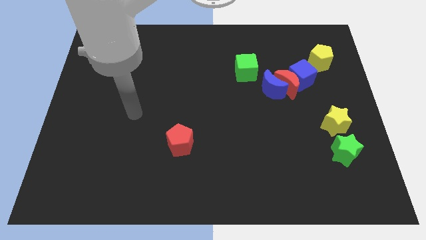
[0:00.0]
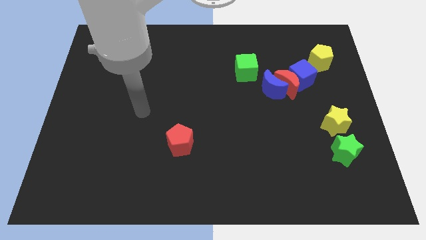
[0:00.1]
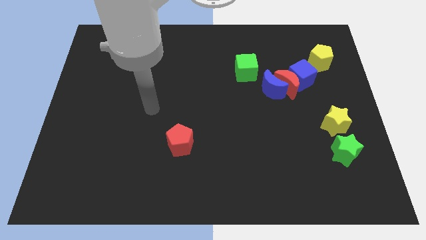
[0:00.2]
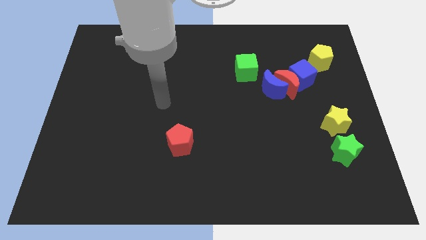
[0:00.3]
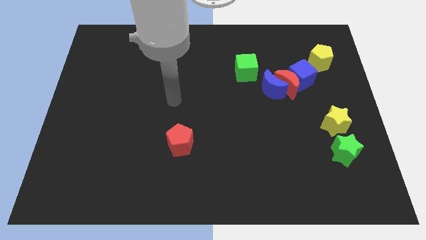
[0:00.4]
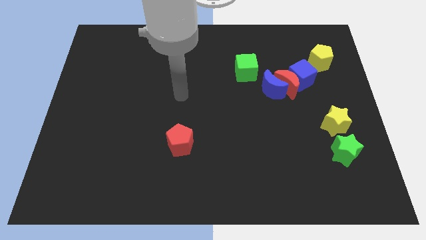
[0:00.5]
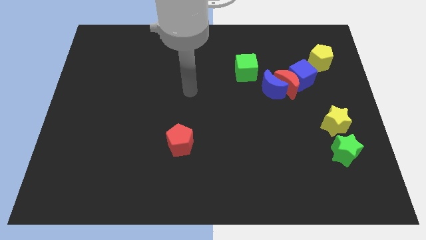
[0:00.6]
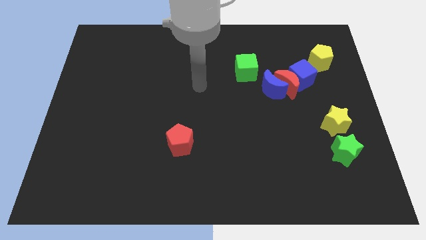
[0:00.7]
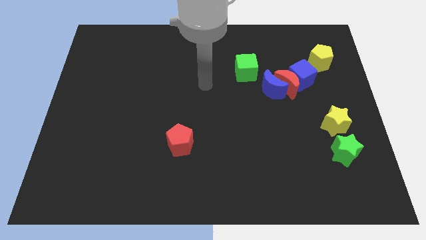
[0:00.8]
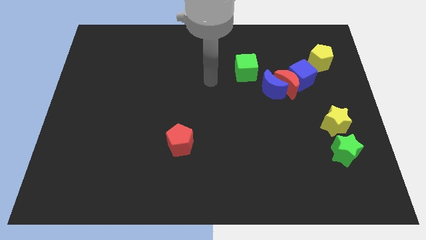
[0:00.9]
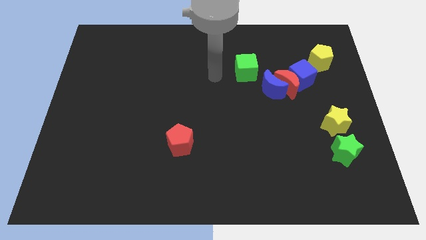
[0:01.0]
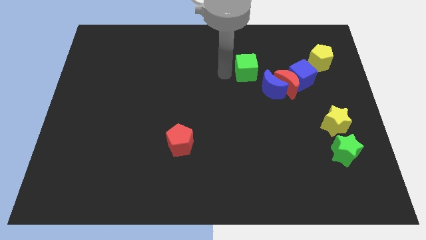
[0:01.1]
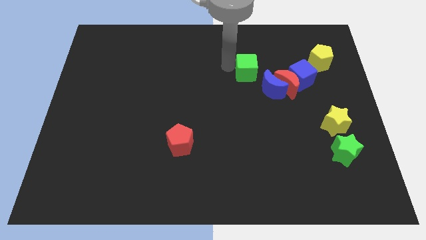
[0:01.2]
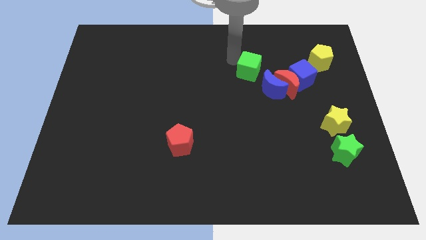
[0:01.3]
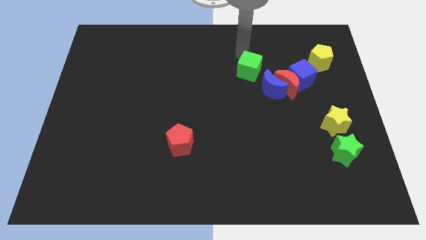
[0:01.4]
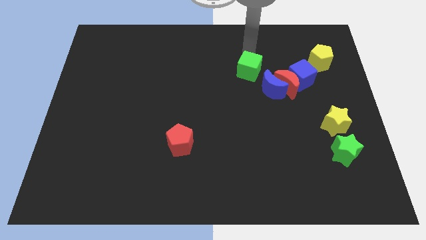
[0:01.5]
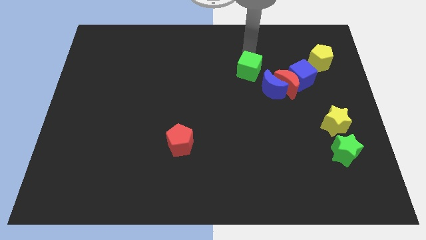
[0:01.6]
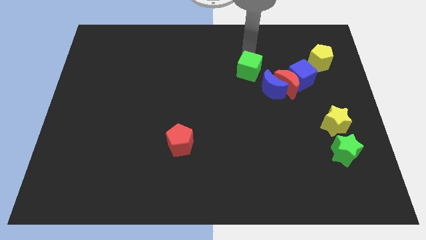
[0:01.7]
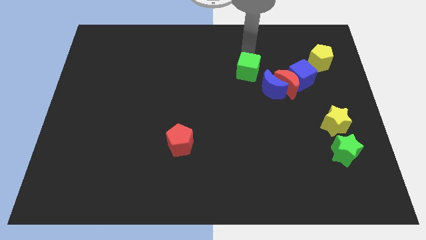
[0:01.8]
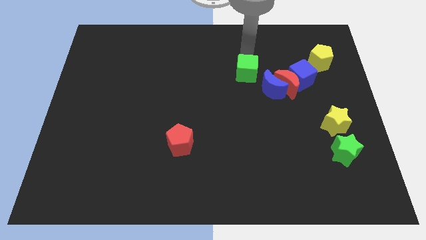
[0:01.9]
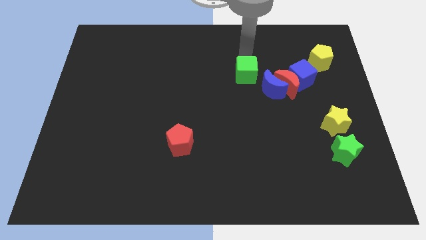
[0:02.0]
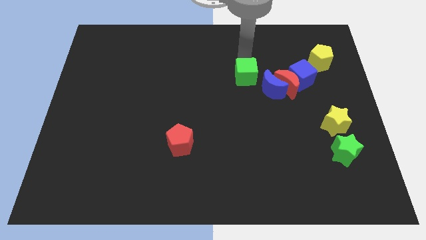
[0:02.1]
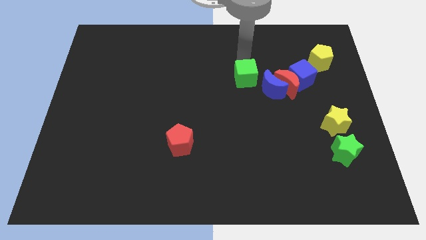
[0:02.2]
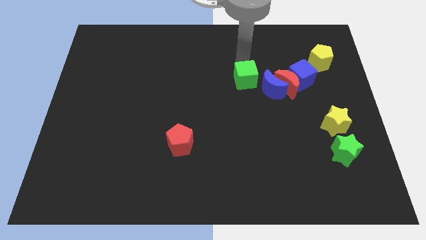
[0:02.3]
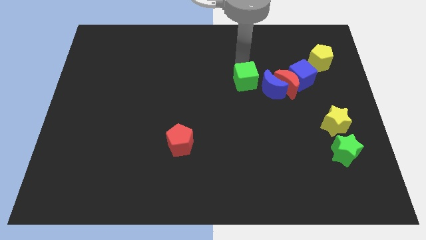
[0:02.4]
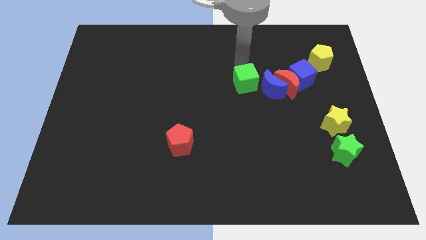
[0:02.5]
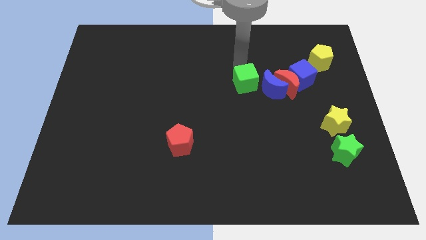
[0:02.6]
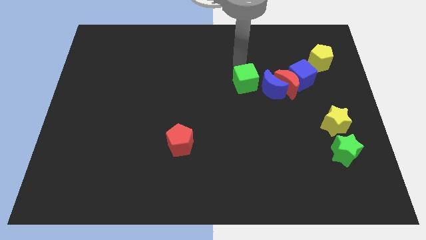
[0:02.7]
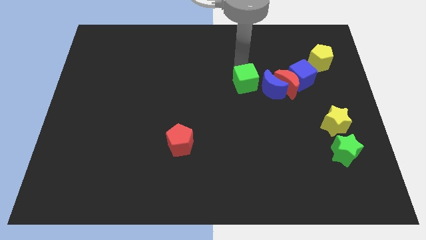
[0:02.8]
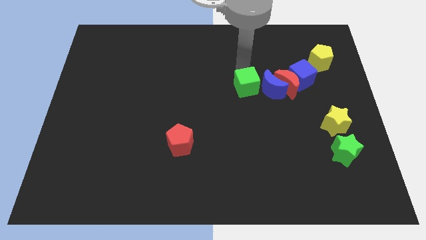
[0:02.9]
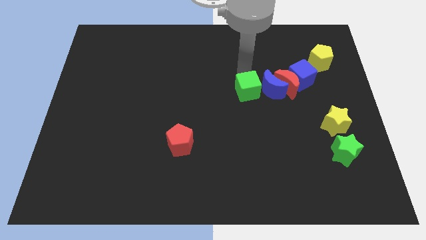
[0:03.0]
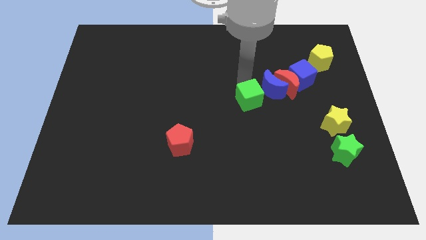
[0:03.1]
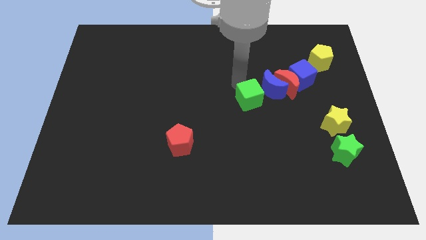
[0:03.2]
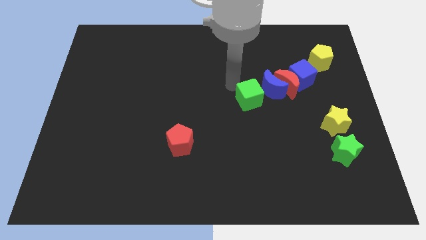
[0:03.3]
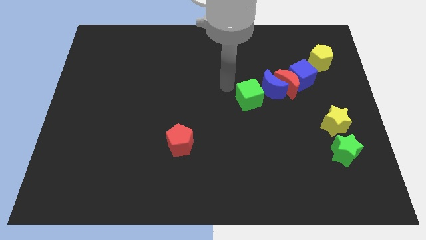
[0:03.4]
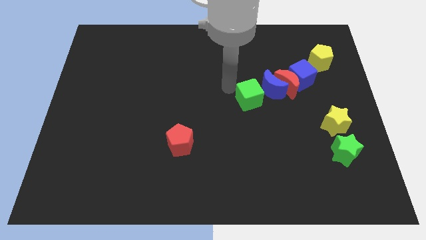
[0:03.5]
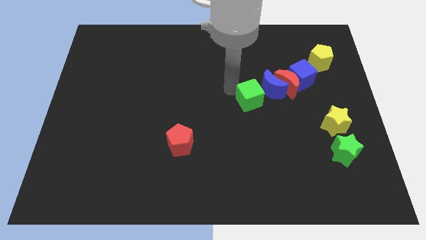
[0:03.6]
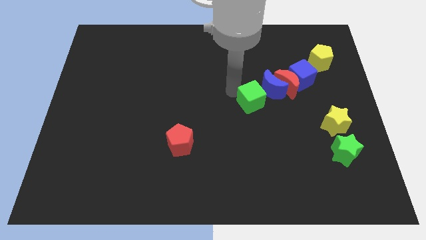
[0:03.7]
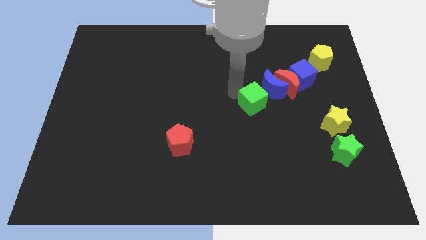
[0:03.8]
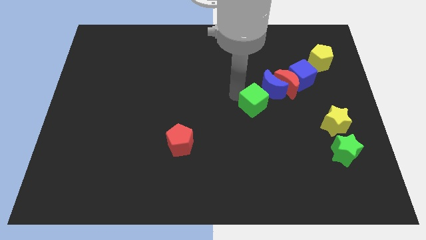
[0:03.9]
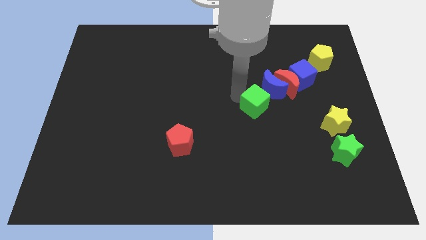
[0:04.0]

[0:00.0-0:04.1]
move the green cube a little down and to the right

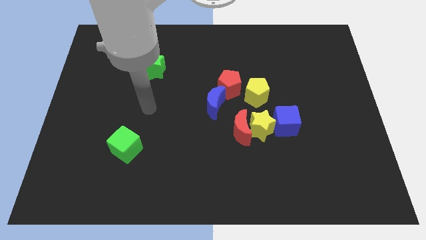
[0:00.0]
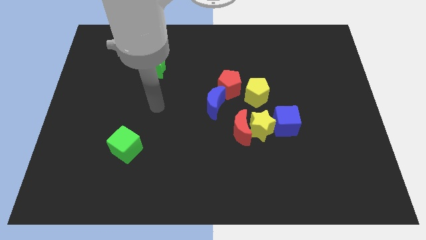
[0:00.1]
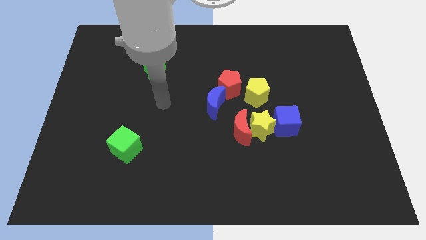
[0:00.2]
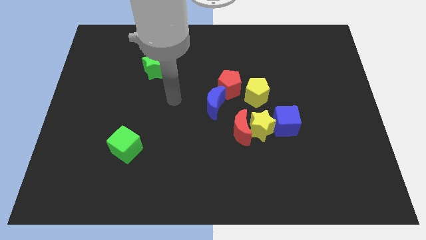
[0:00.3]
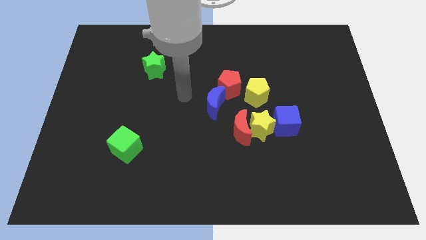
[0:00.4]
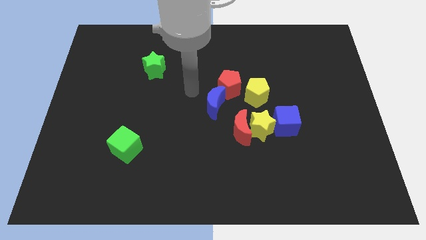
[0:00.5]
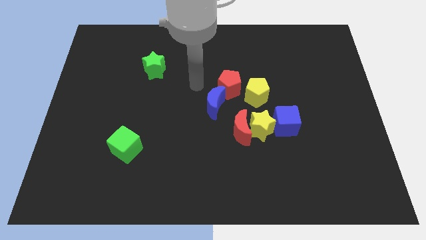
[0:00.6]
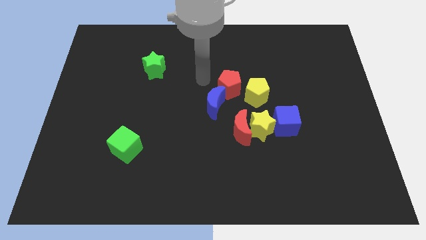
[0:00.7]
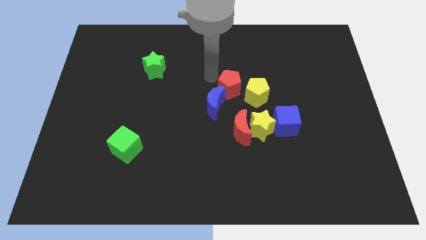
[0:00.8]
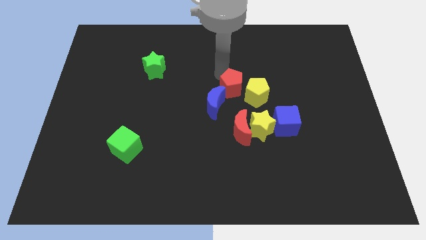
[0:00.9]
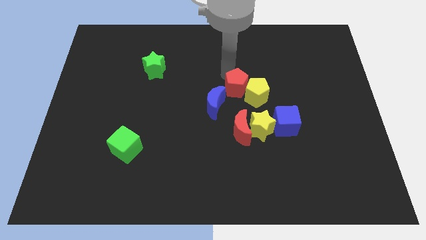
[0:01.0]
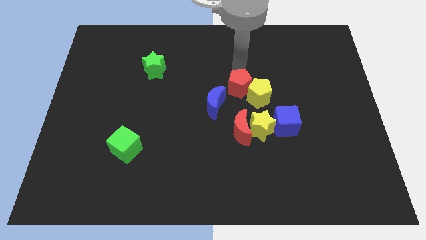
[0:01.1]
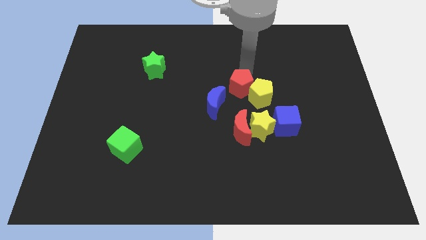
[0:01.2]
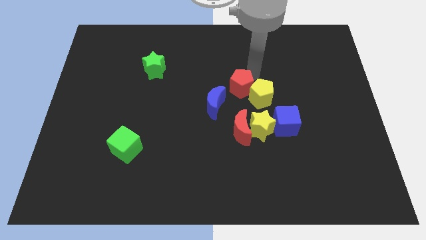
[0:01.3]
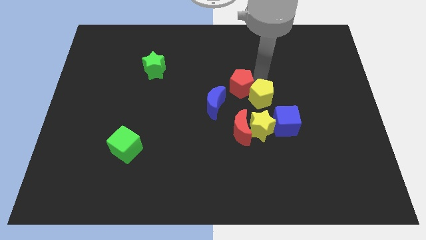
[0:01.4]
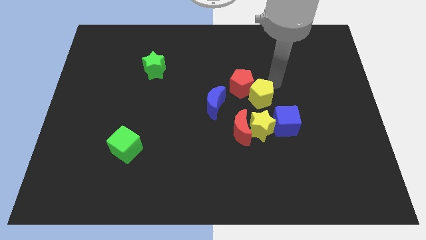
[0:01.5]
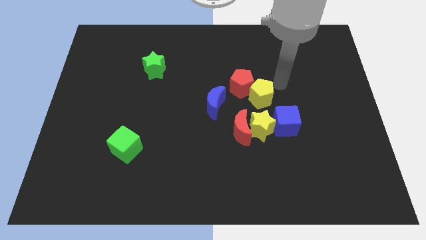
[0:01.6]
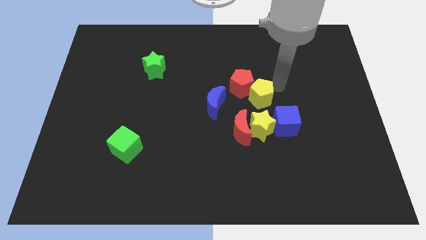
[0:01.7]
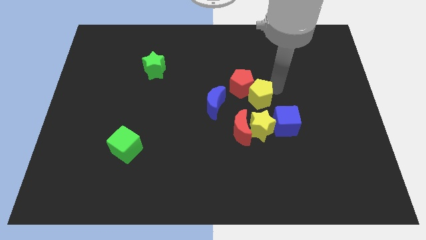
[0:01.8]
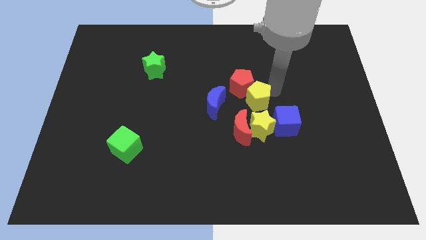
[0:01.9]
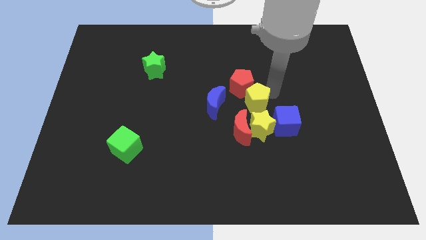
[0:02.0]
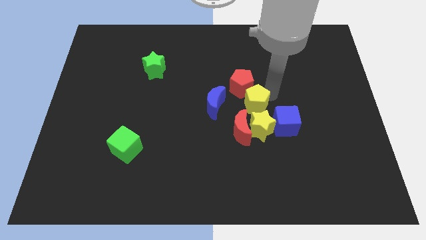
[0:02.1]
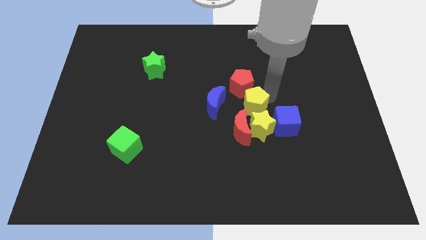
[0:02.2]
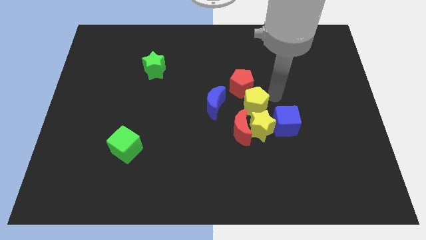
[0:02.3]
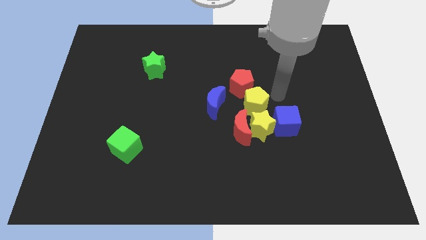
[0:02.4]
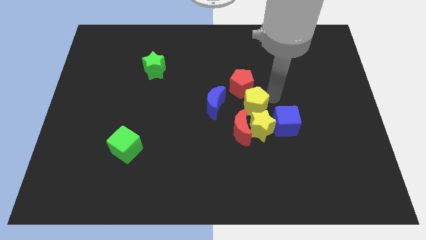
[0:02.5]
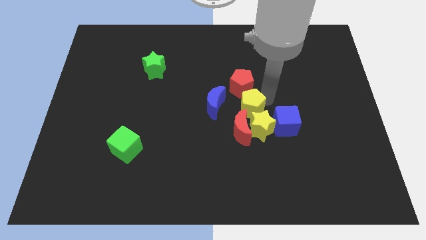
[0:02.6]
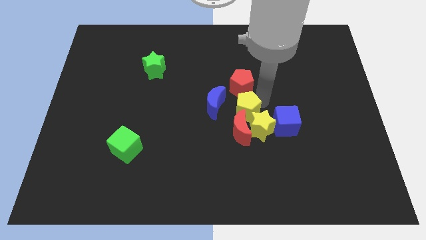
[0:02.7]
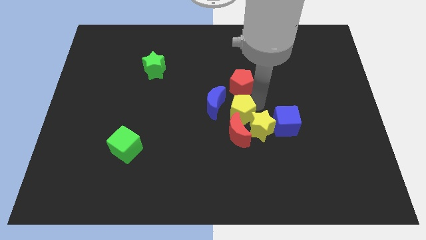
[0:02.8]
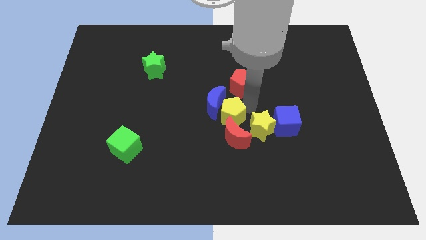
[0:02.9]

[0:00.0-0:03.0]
slightly slide the yellow pentagon downwards and to the left
